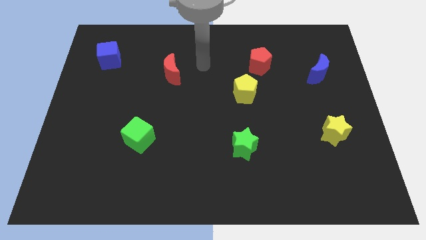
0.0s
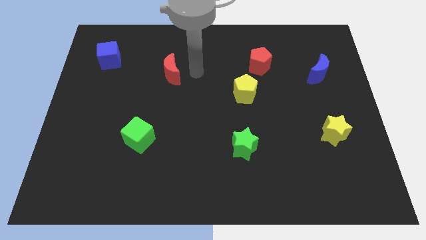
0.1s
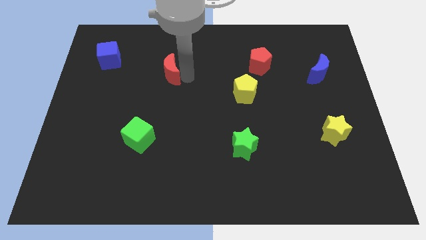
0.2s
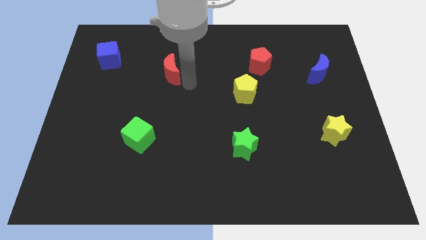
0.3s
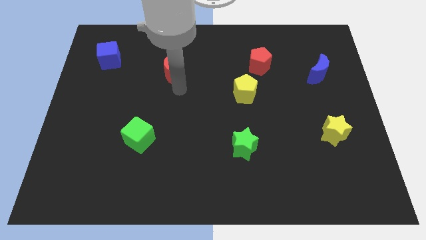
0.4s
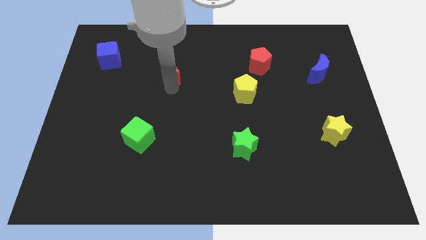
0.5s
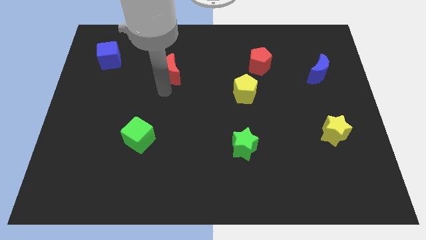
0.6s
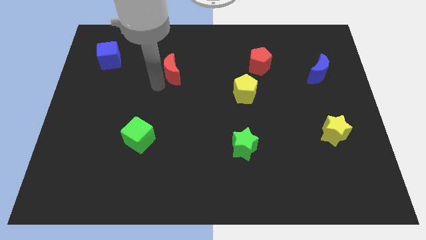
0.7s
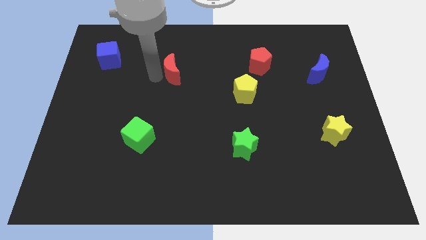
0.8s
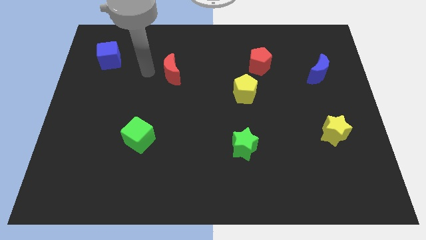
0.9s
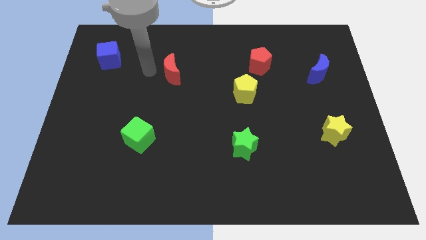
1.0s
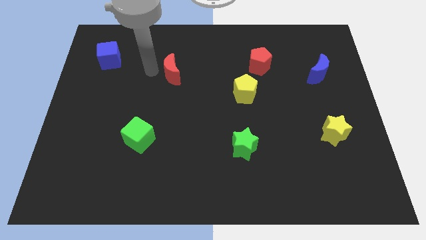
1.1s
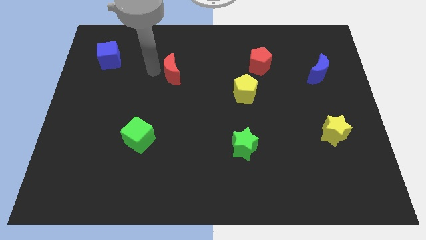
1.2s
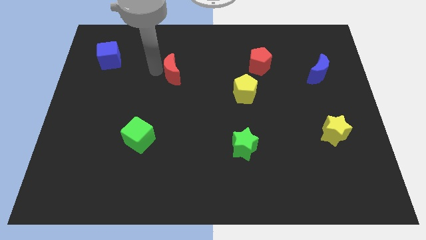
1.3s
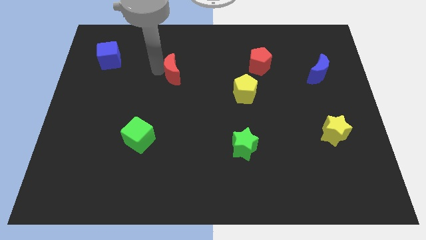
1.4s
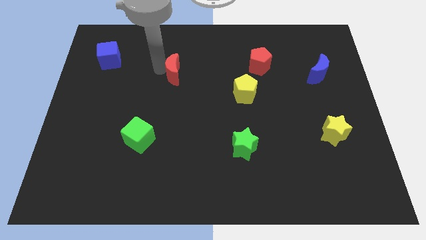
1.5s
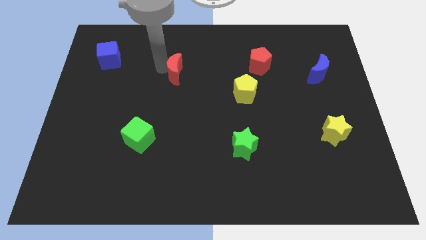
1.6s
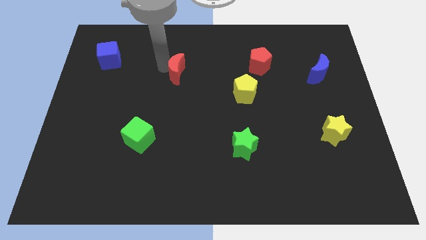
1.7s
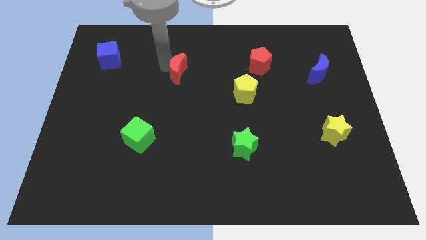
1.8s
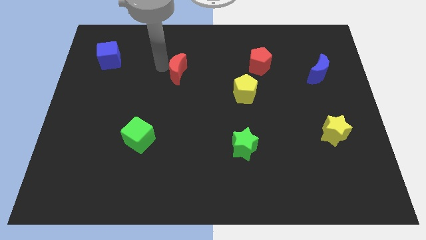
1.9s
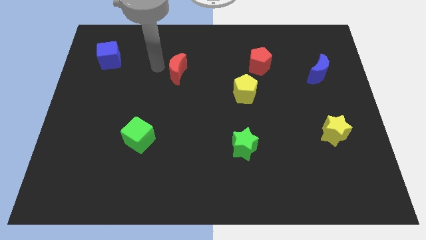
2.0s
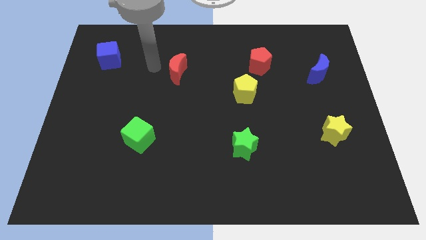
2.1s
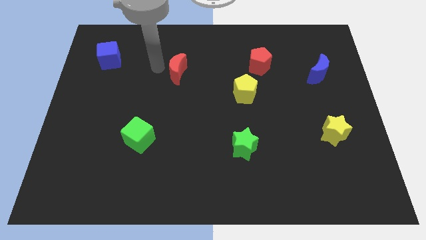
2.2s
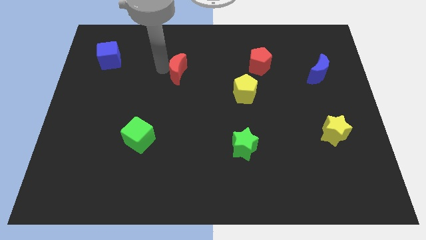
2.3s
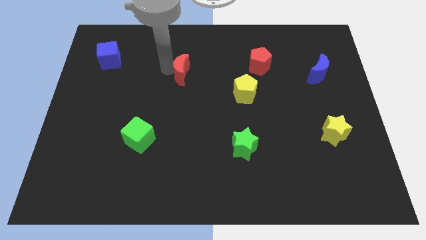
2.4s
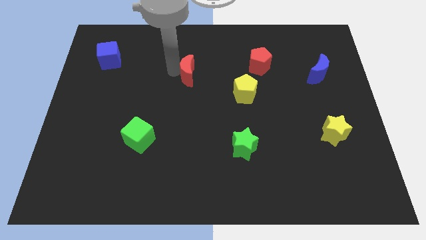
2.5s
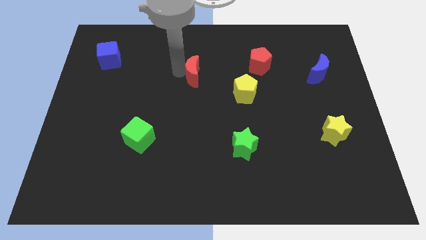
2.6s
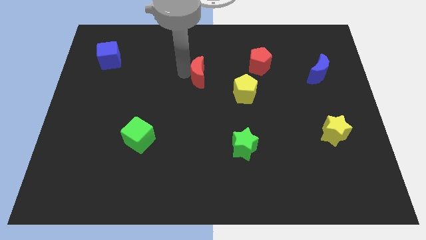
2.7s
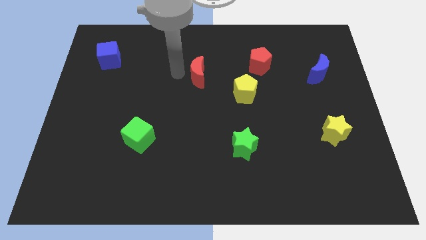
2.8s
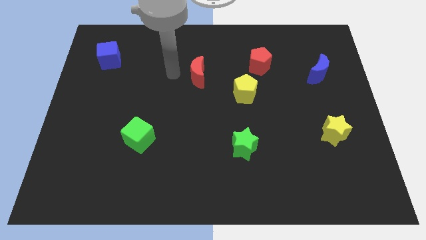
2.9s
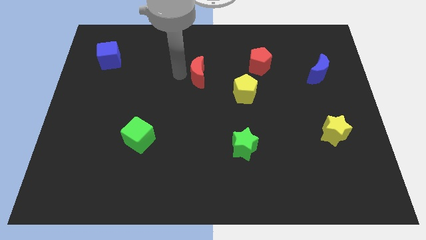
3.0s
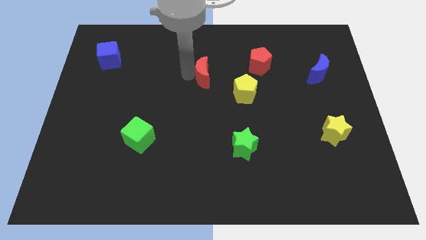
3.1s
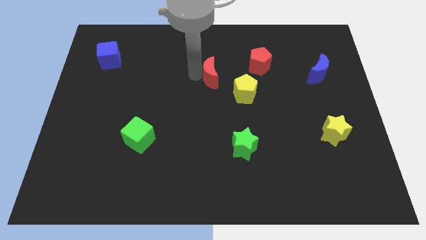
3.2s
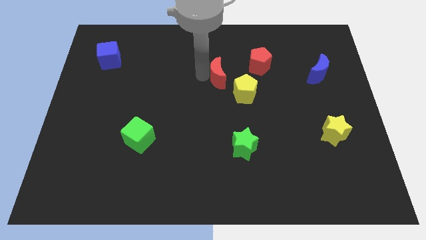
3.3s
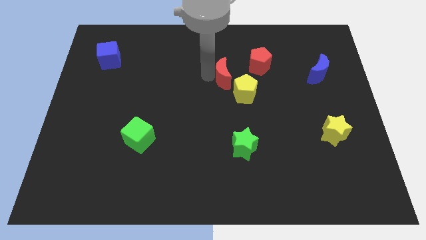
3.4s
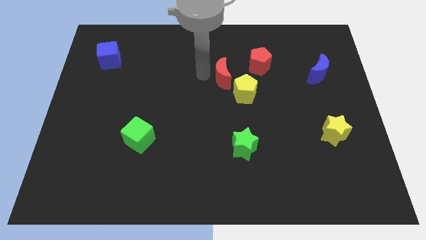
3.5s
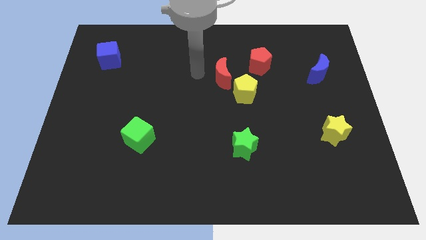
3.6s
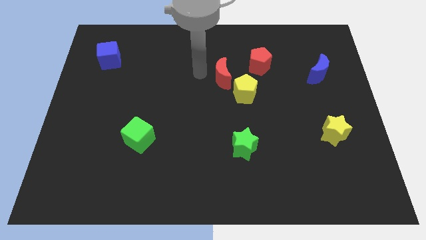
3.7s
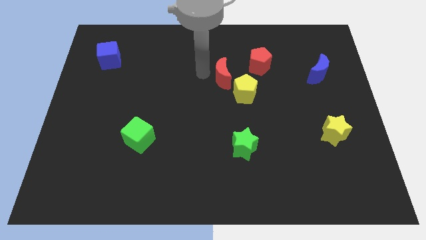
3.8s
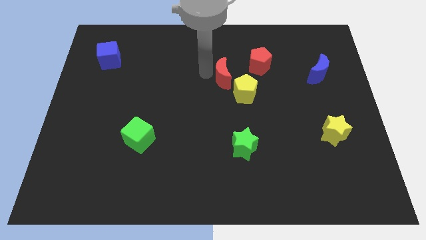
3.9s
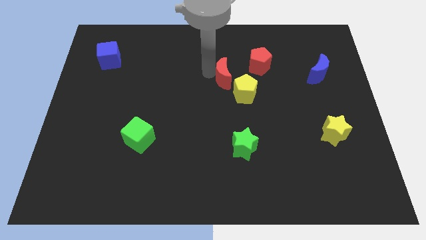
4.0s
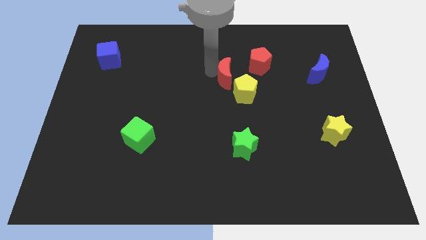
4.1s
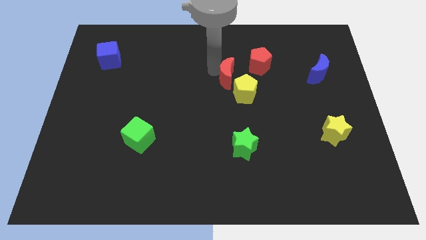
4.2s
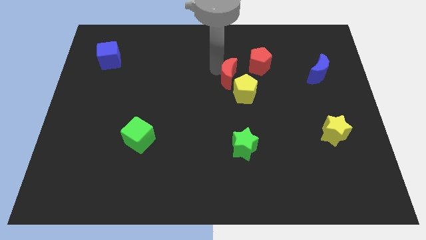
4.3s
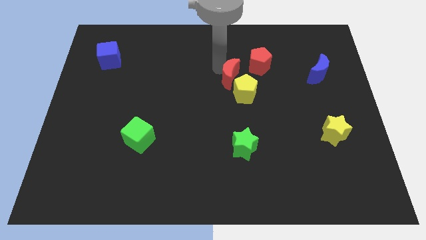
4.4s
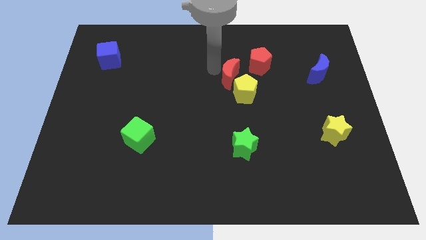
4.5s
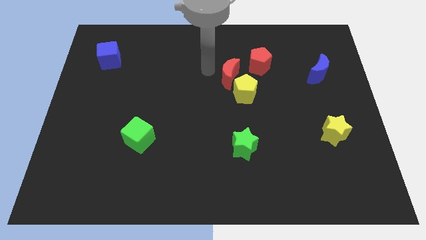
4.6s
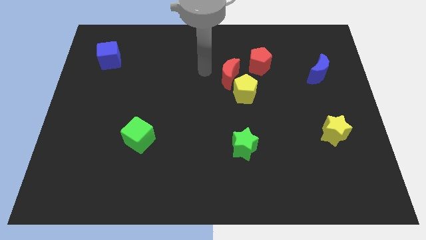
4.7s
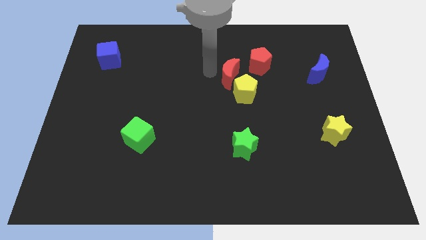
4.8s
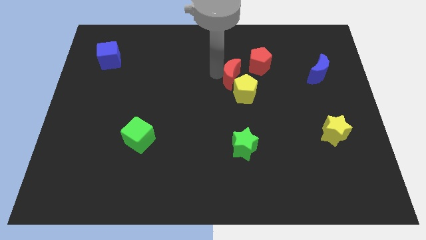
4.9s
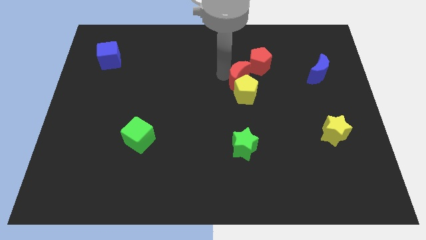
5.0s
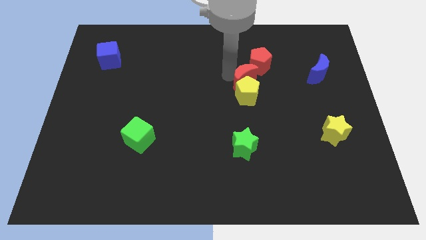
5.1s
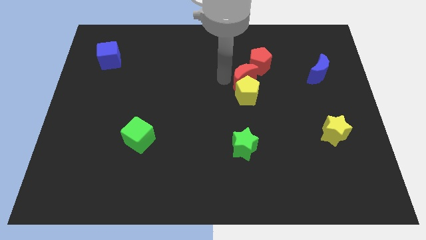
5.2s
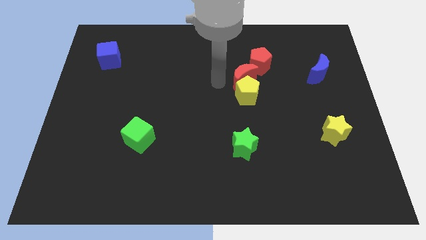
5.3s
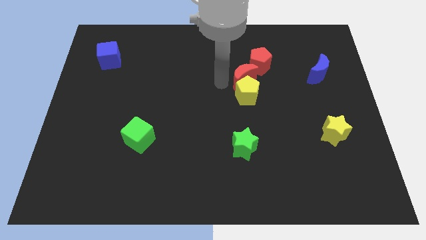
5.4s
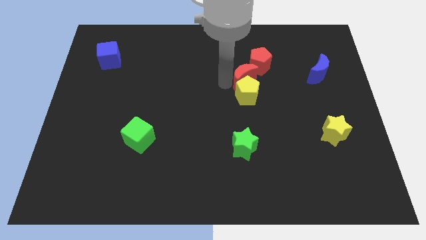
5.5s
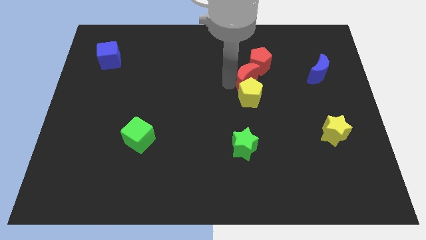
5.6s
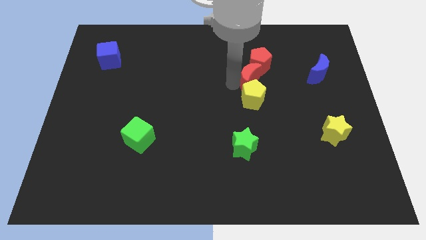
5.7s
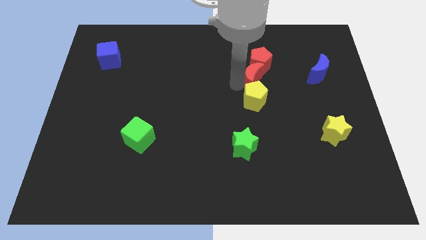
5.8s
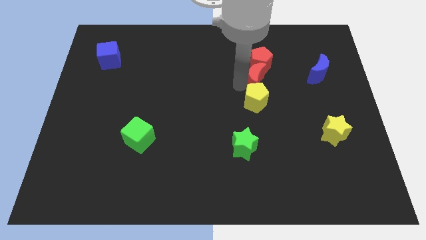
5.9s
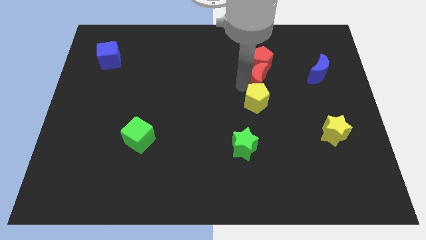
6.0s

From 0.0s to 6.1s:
move the red moon just left of the blue moon
